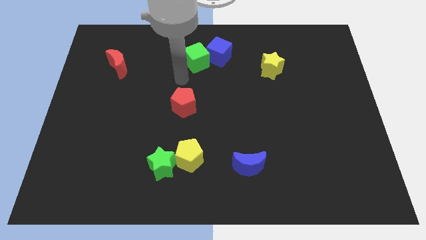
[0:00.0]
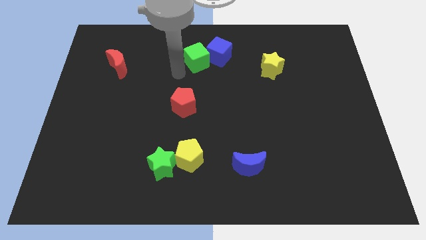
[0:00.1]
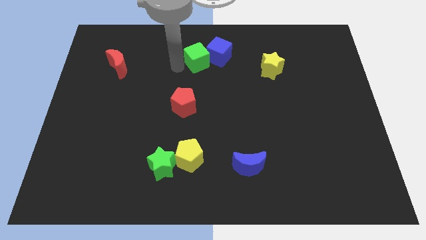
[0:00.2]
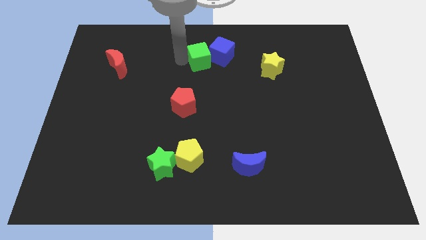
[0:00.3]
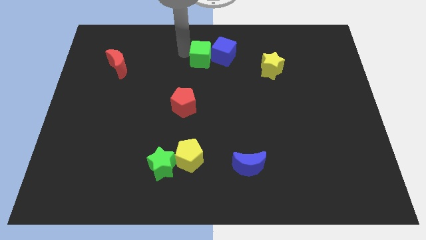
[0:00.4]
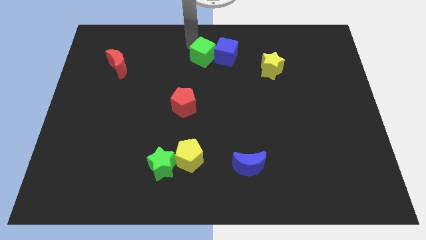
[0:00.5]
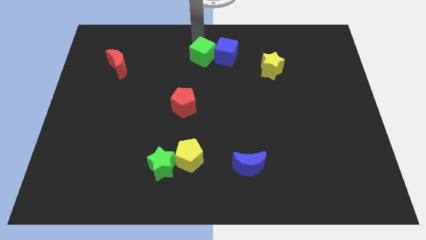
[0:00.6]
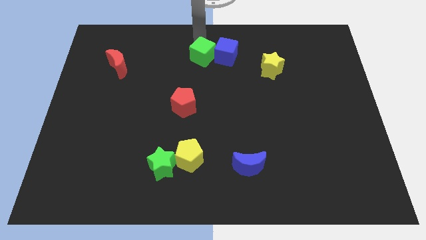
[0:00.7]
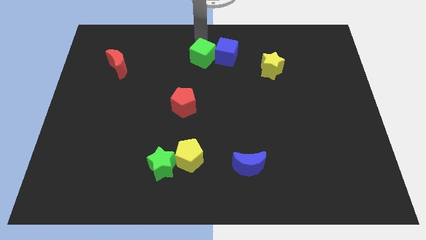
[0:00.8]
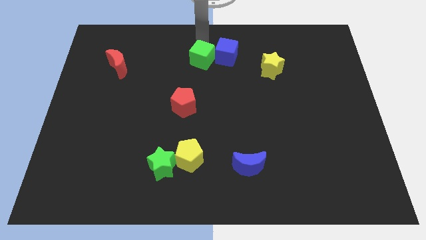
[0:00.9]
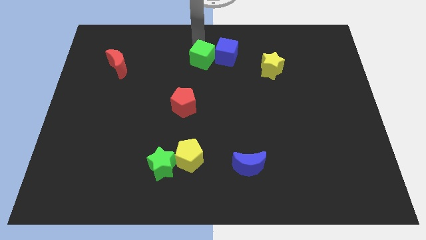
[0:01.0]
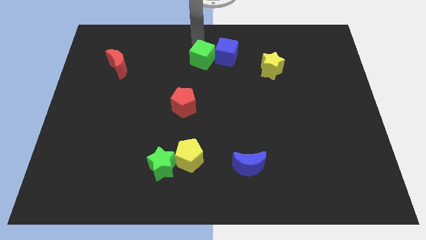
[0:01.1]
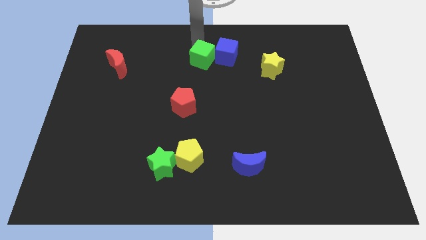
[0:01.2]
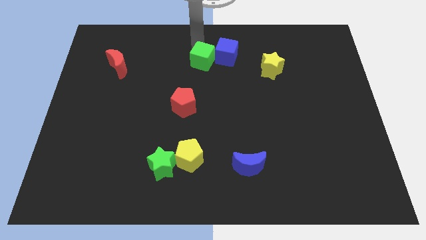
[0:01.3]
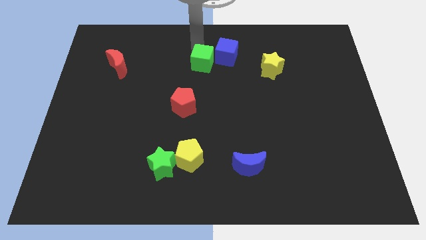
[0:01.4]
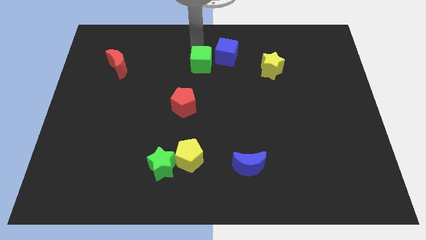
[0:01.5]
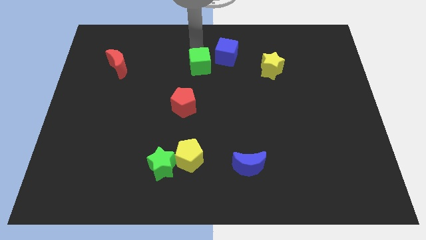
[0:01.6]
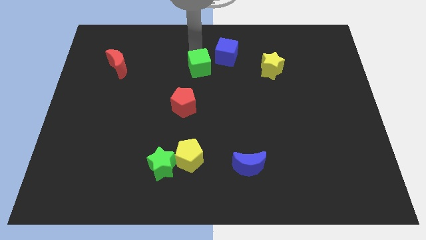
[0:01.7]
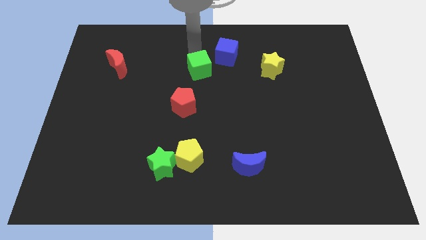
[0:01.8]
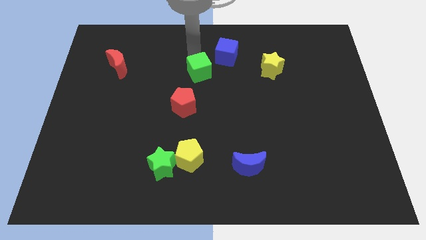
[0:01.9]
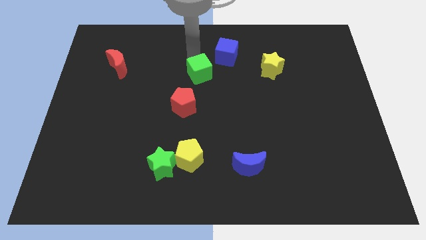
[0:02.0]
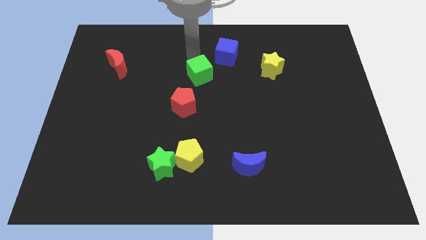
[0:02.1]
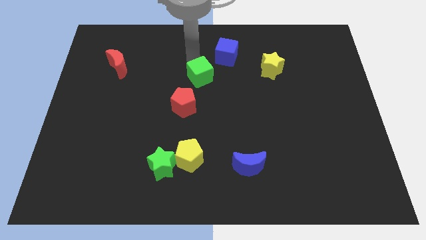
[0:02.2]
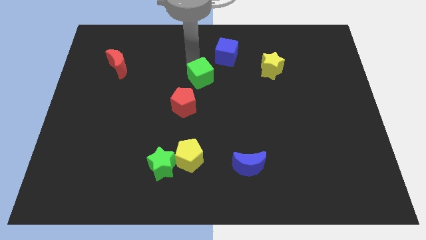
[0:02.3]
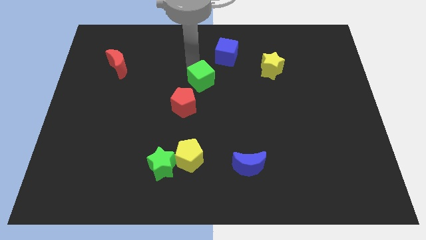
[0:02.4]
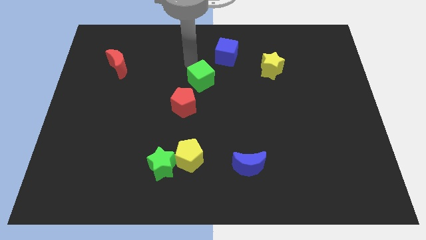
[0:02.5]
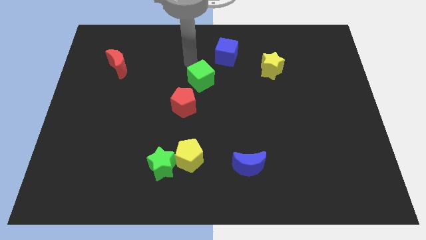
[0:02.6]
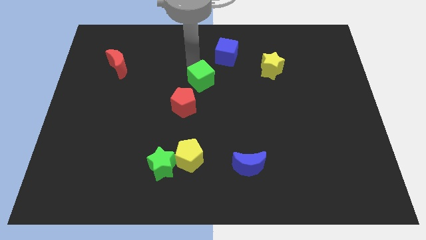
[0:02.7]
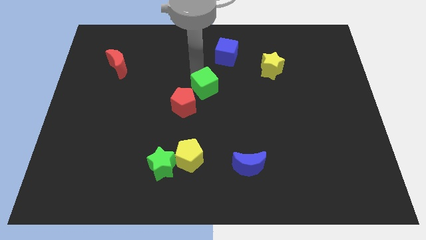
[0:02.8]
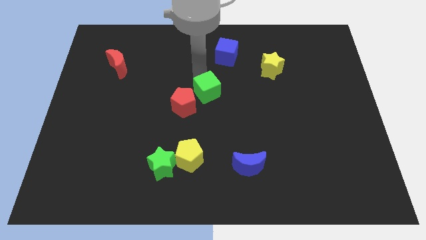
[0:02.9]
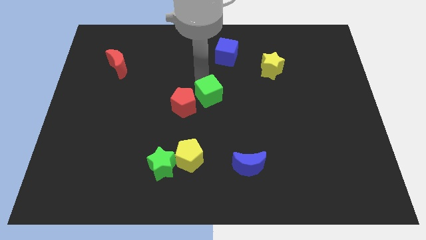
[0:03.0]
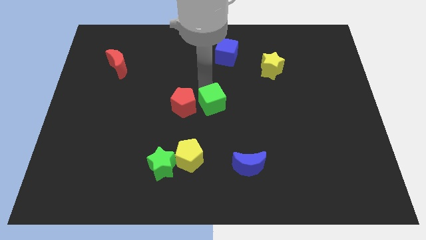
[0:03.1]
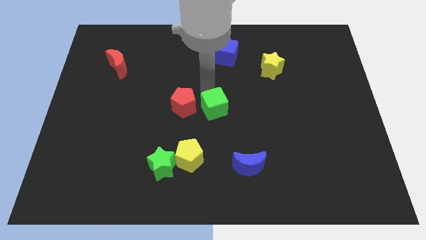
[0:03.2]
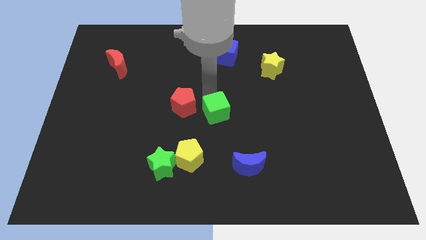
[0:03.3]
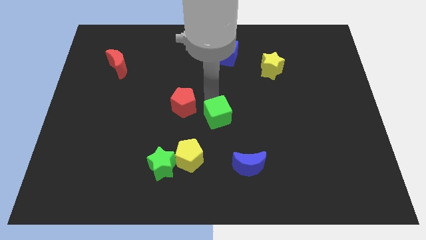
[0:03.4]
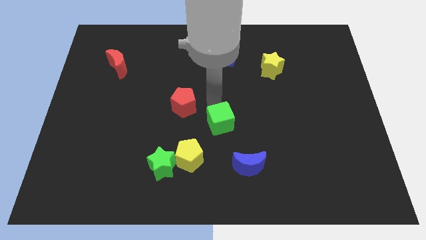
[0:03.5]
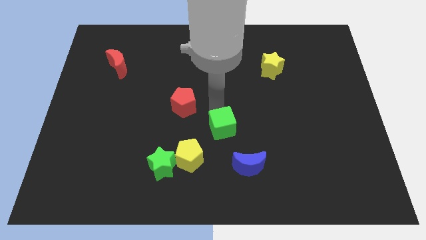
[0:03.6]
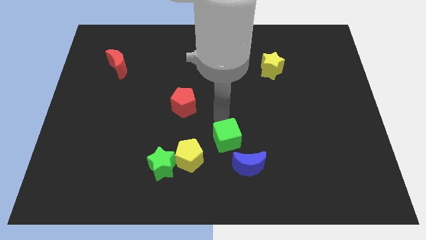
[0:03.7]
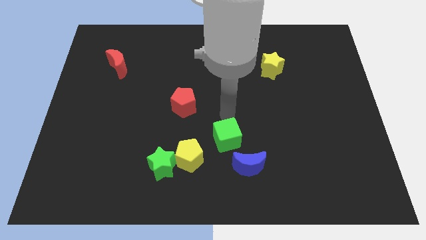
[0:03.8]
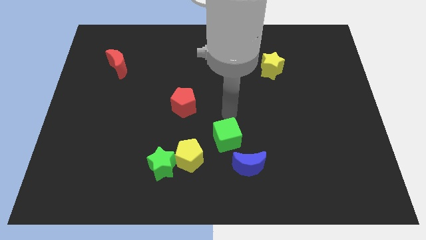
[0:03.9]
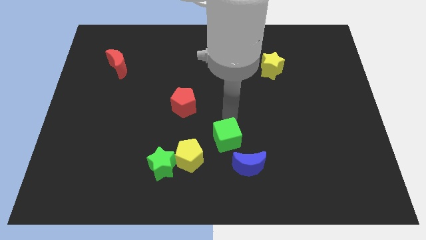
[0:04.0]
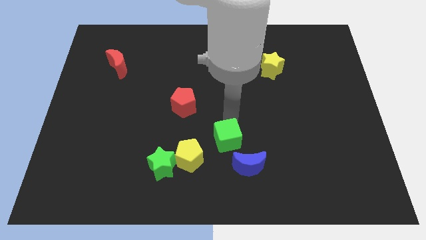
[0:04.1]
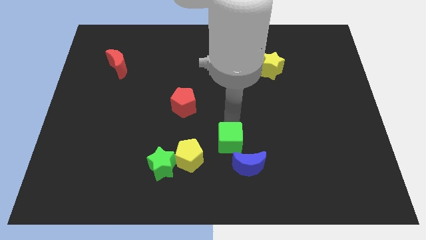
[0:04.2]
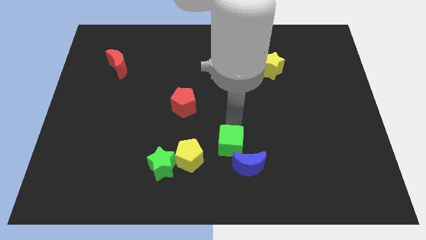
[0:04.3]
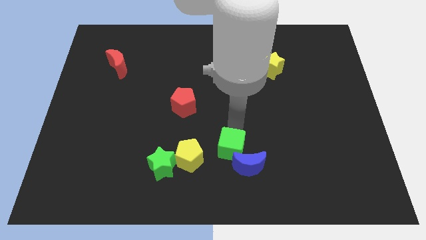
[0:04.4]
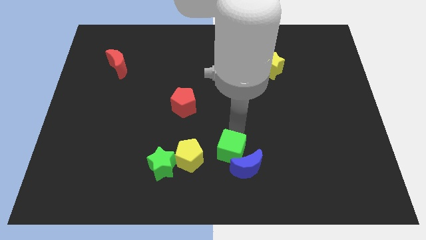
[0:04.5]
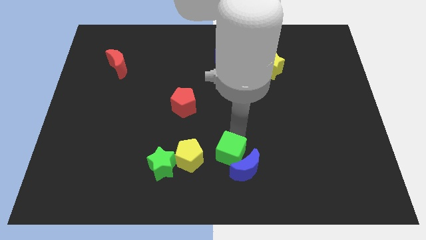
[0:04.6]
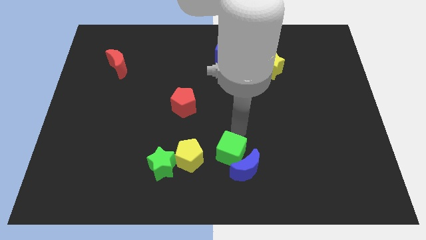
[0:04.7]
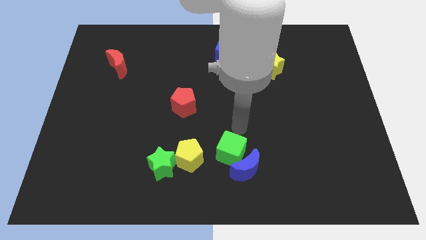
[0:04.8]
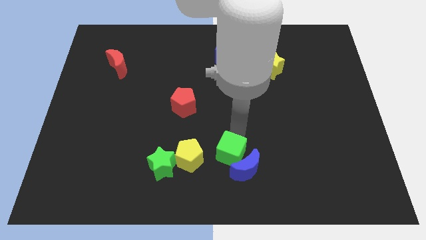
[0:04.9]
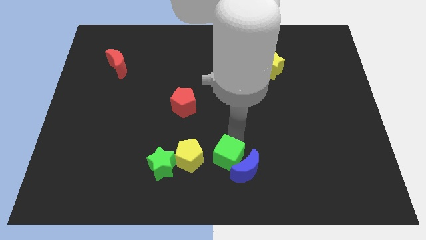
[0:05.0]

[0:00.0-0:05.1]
put the green cube to the bottom

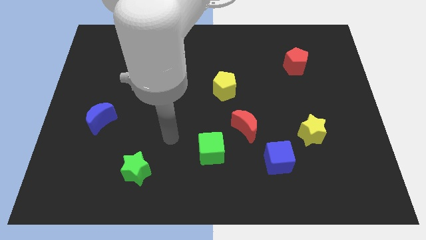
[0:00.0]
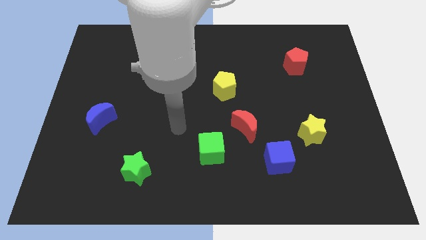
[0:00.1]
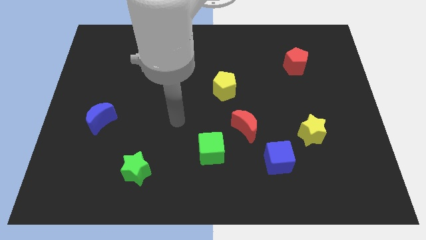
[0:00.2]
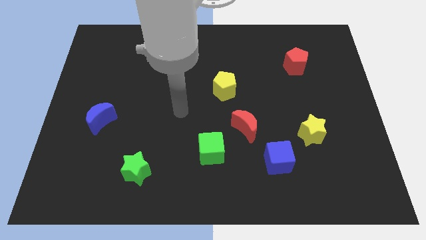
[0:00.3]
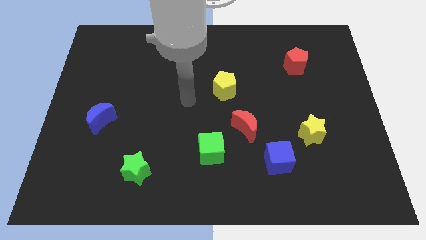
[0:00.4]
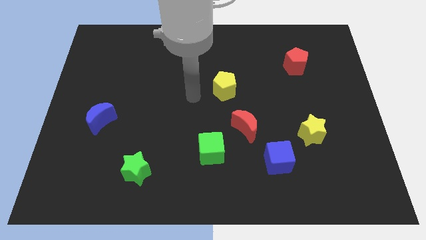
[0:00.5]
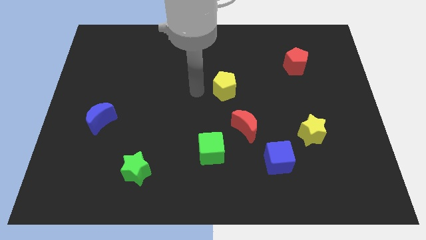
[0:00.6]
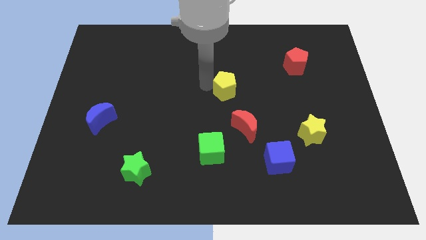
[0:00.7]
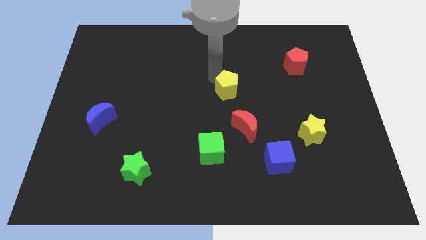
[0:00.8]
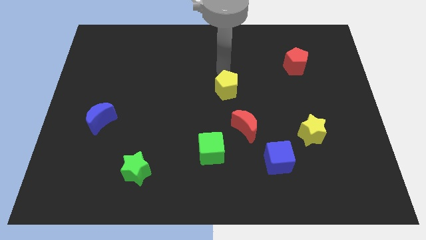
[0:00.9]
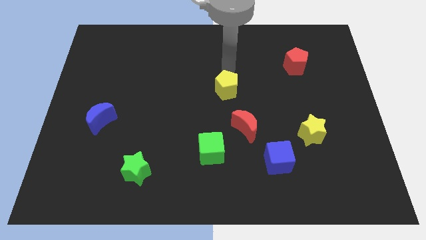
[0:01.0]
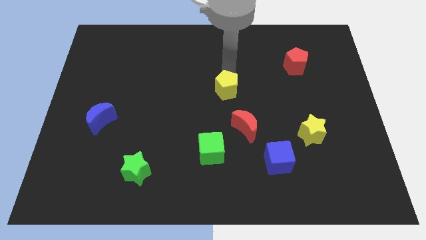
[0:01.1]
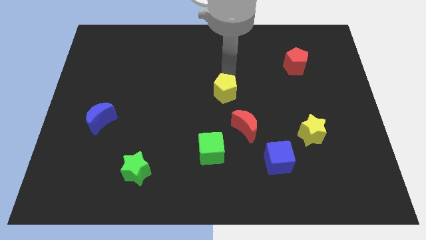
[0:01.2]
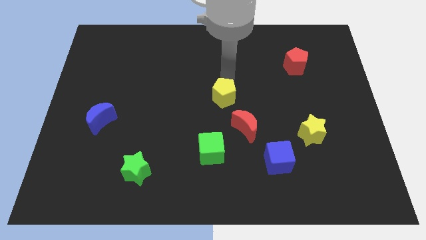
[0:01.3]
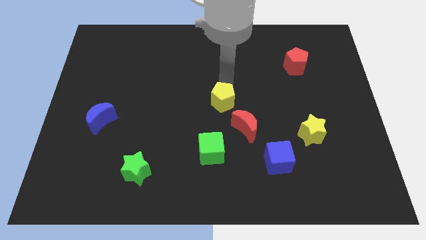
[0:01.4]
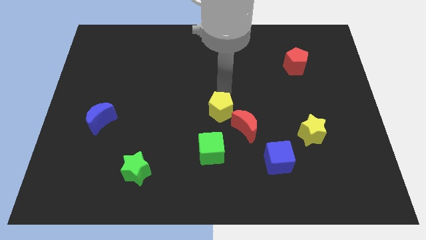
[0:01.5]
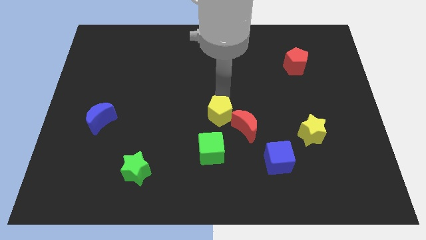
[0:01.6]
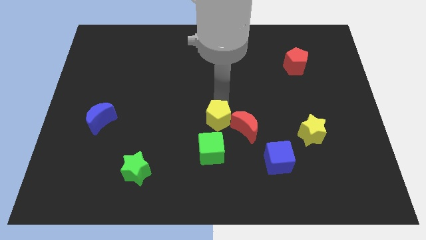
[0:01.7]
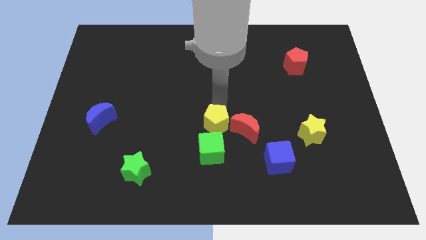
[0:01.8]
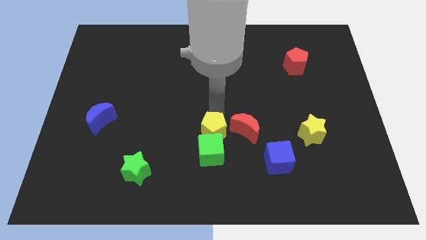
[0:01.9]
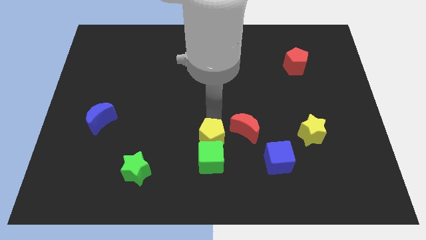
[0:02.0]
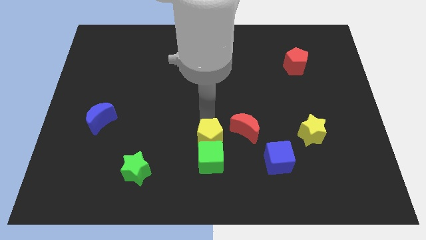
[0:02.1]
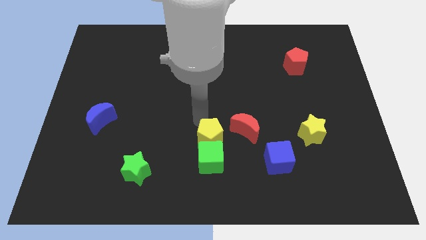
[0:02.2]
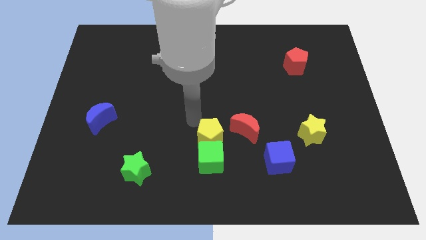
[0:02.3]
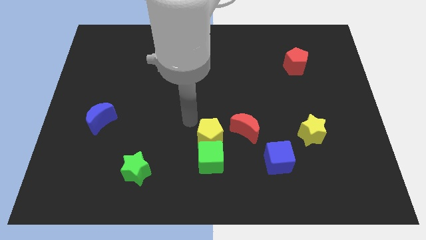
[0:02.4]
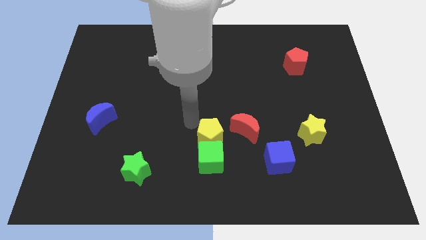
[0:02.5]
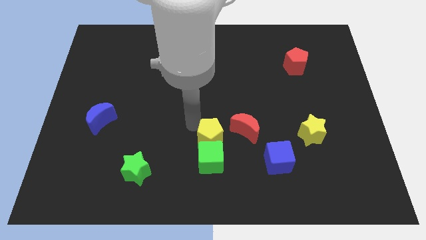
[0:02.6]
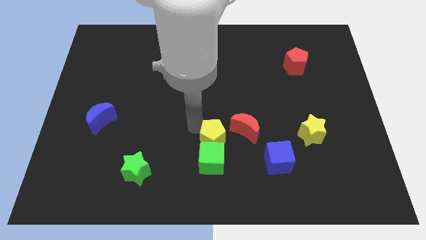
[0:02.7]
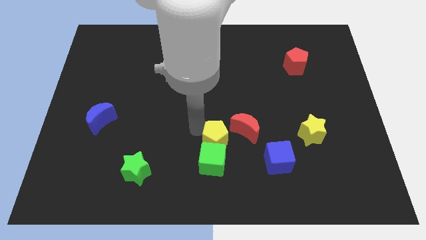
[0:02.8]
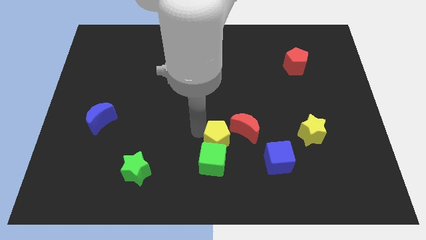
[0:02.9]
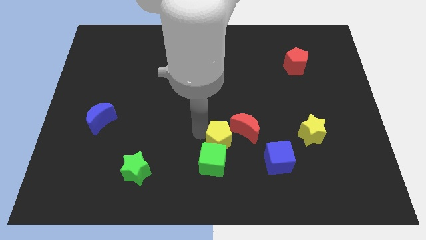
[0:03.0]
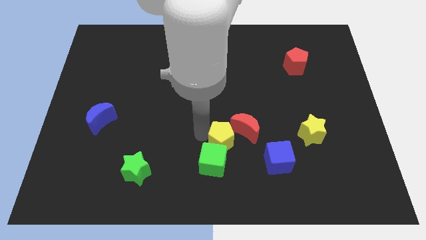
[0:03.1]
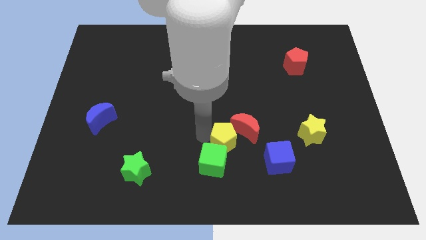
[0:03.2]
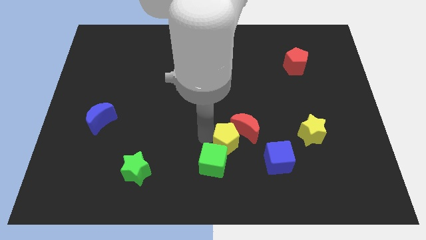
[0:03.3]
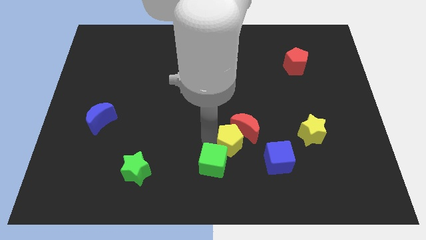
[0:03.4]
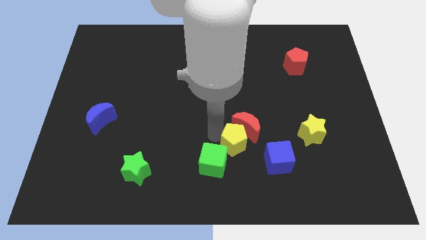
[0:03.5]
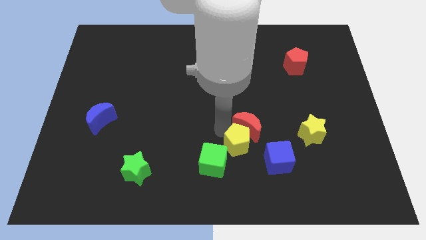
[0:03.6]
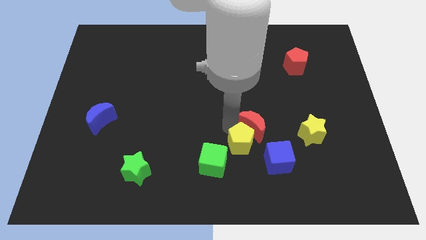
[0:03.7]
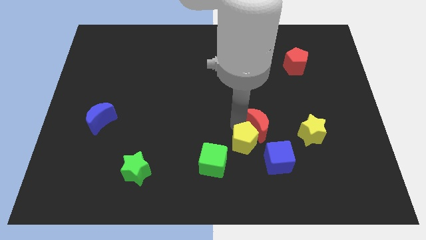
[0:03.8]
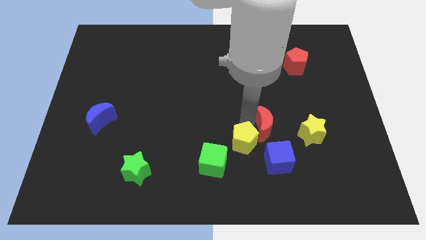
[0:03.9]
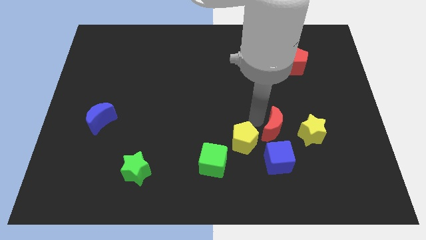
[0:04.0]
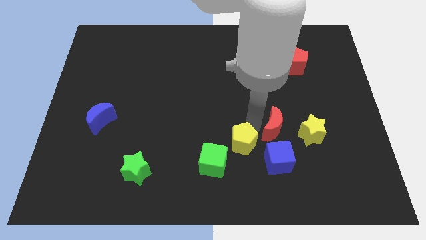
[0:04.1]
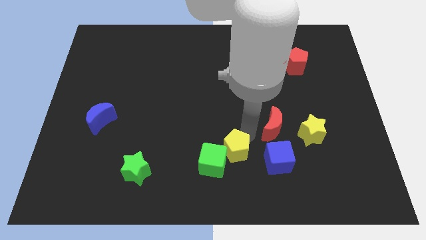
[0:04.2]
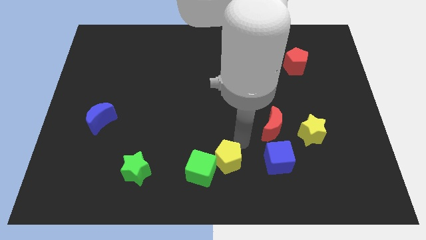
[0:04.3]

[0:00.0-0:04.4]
move the yellow pentagon to the bottom side
